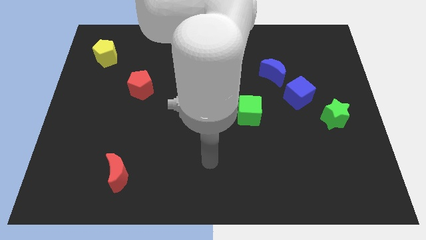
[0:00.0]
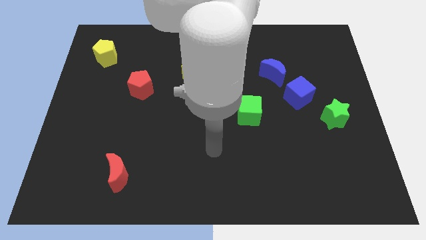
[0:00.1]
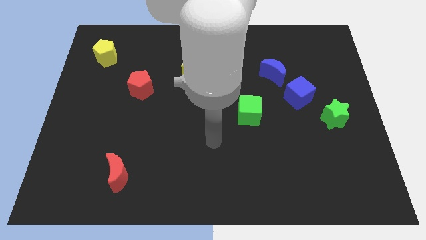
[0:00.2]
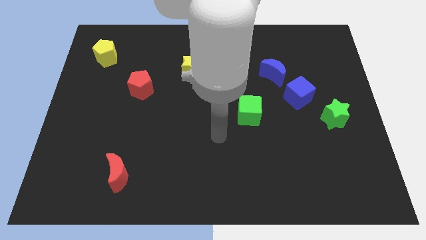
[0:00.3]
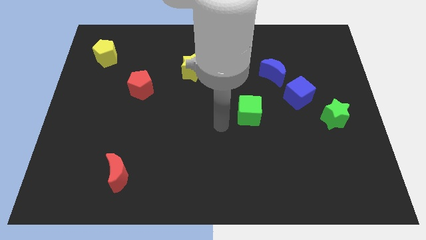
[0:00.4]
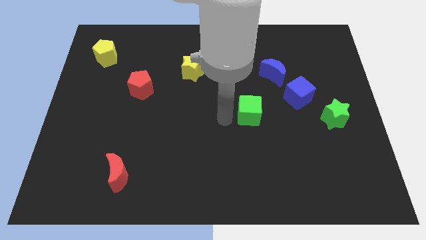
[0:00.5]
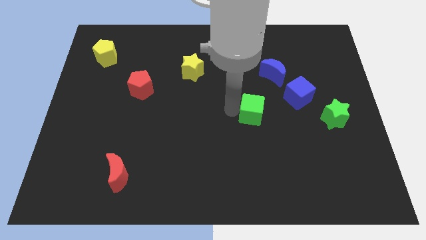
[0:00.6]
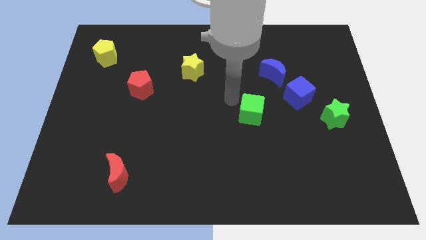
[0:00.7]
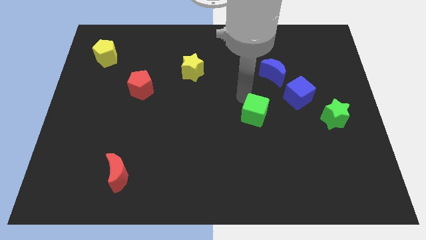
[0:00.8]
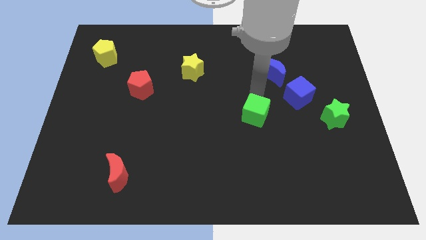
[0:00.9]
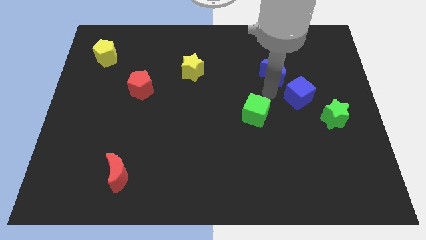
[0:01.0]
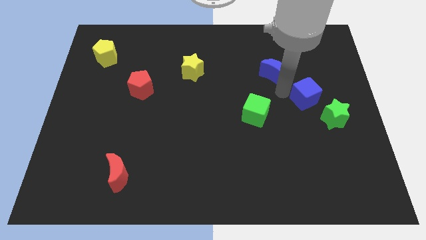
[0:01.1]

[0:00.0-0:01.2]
move the blue moon away from the blue cube

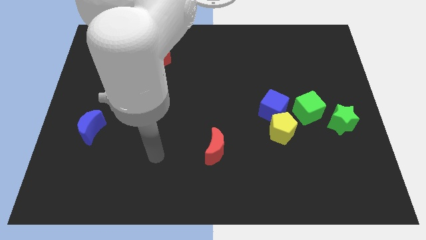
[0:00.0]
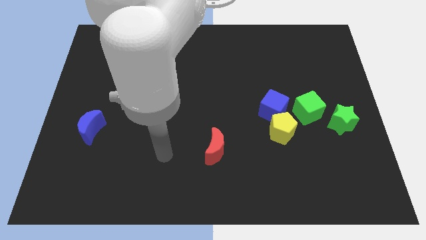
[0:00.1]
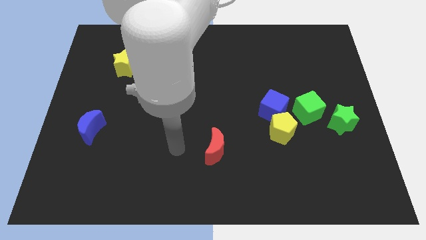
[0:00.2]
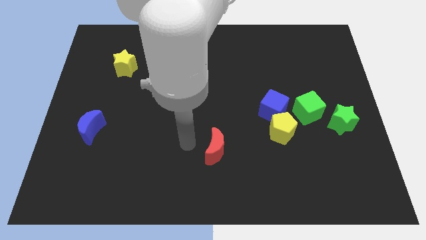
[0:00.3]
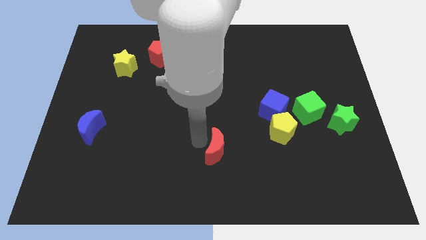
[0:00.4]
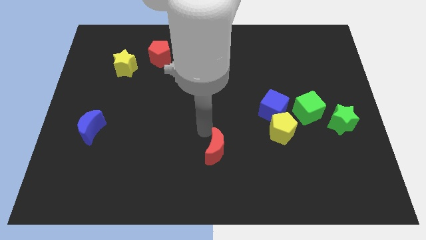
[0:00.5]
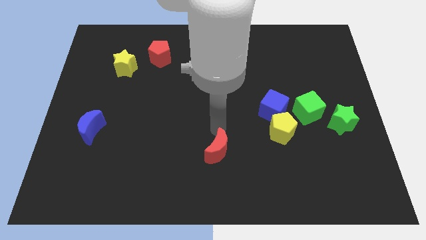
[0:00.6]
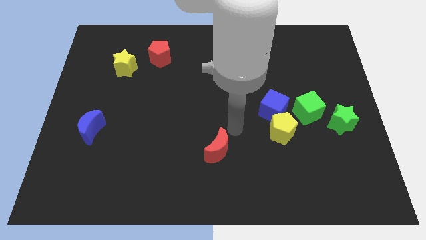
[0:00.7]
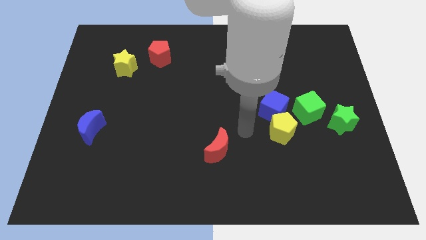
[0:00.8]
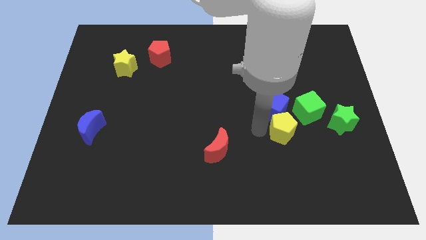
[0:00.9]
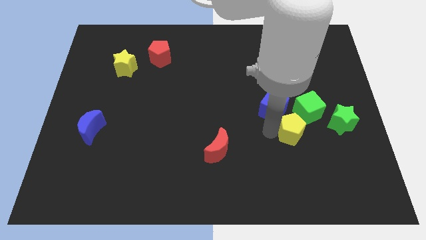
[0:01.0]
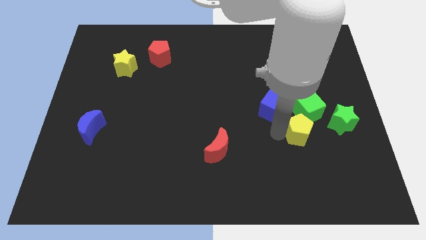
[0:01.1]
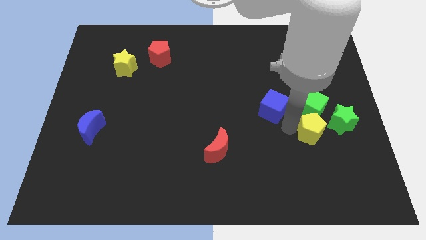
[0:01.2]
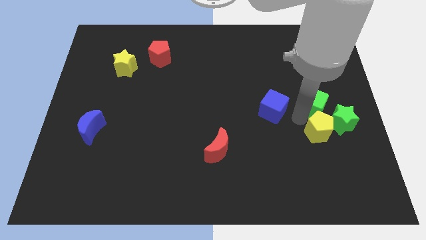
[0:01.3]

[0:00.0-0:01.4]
separate the blue cube from the yellow pentagon and green cube

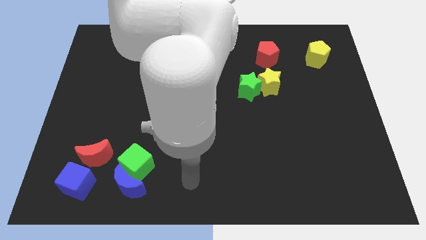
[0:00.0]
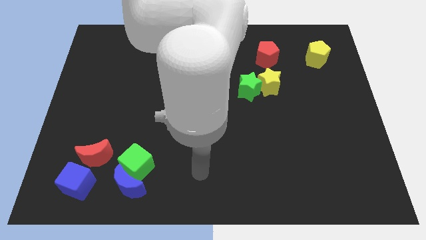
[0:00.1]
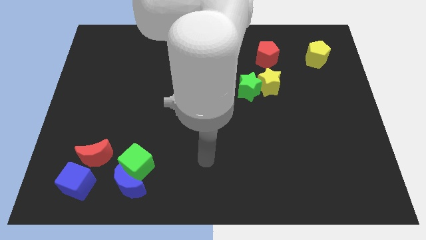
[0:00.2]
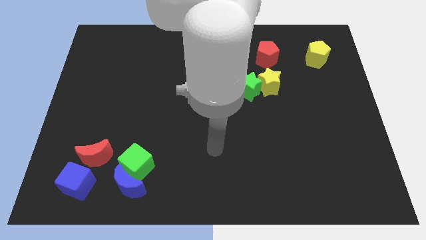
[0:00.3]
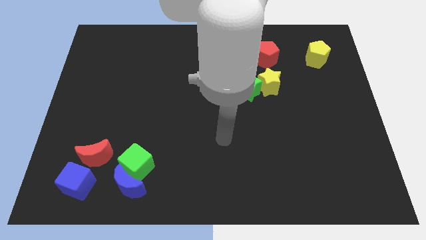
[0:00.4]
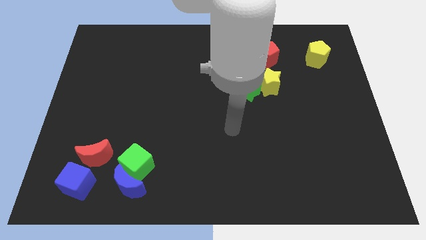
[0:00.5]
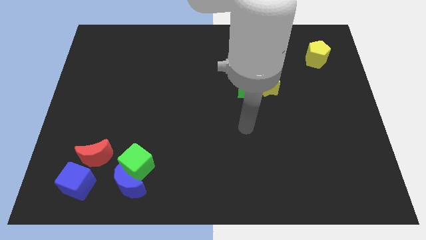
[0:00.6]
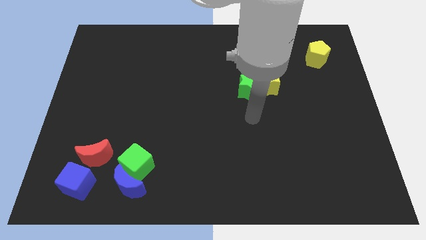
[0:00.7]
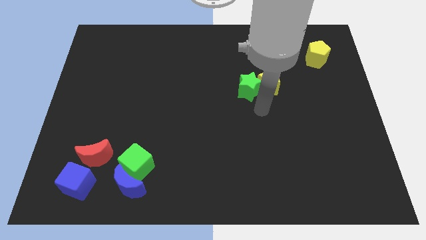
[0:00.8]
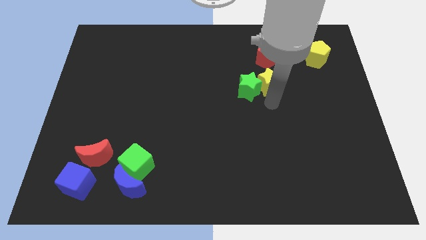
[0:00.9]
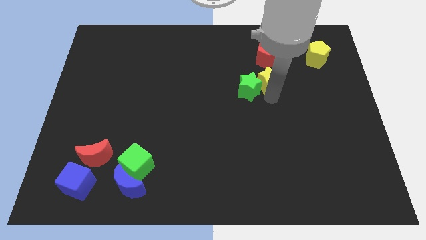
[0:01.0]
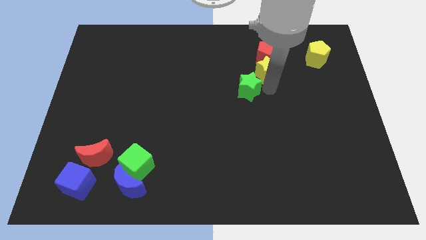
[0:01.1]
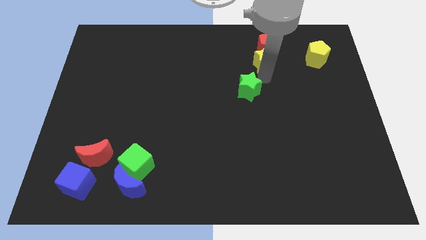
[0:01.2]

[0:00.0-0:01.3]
pull the green star apart from the yellow star

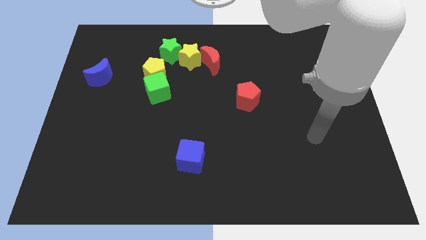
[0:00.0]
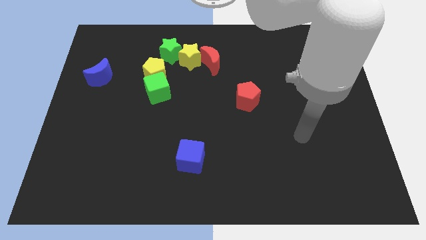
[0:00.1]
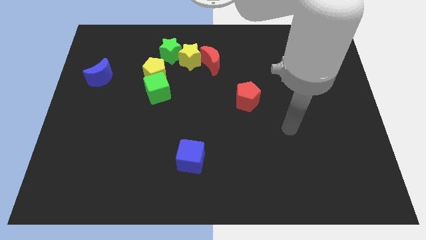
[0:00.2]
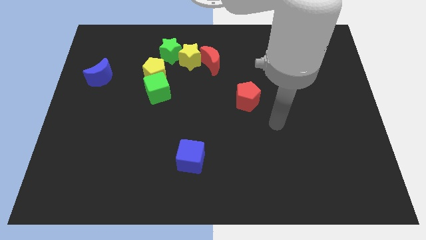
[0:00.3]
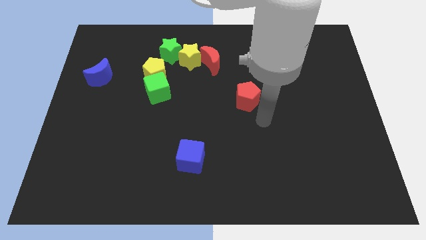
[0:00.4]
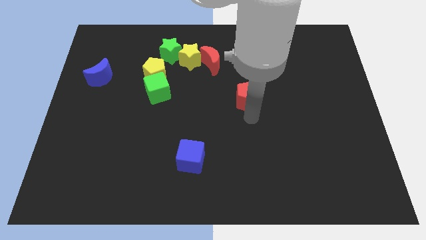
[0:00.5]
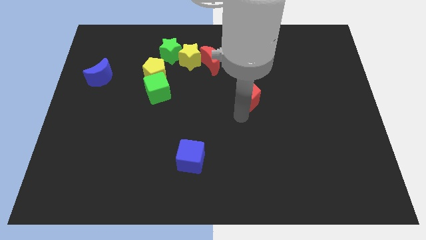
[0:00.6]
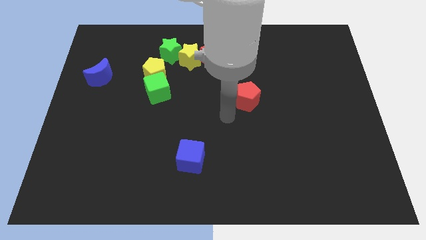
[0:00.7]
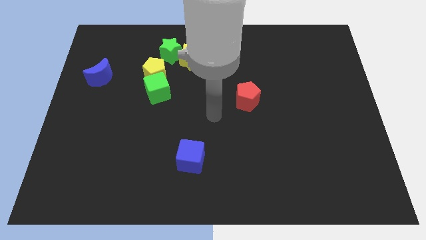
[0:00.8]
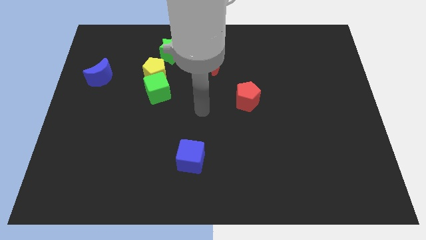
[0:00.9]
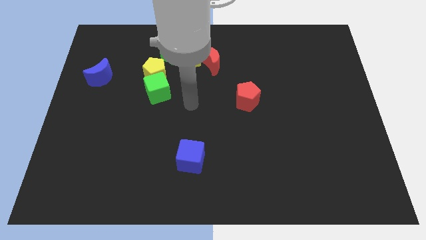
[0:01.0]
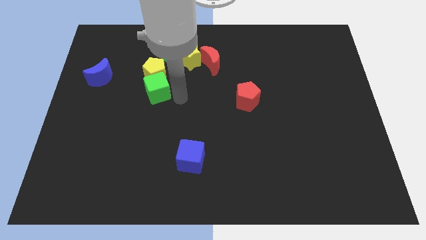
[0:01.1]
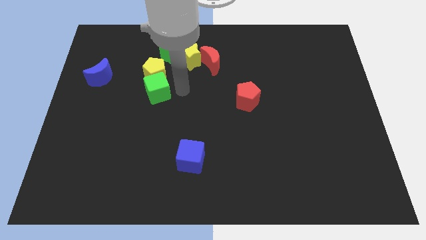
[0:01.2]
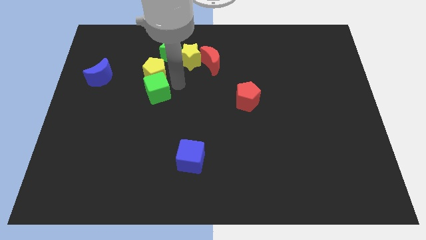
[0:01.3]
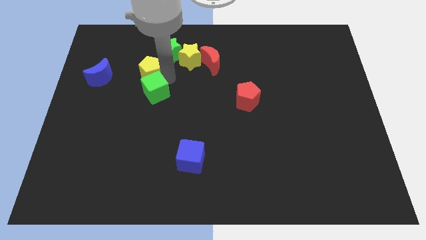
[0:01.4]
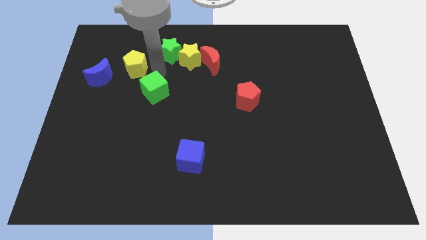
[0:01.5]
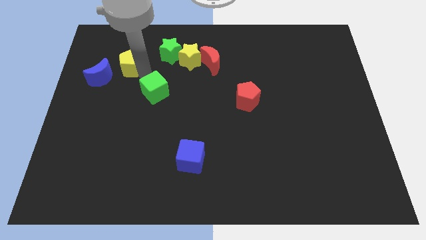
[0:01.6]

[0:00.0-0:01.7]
move the green cube away from the yellow pentagon

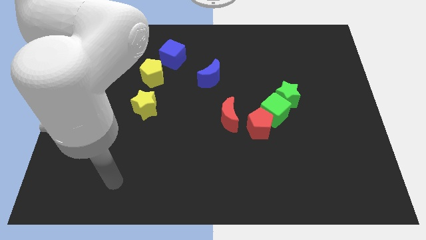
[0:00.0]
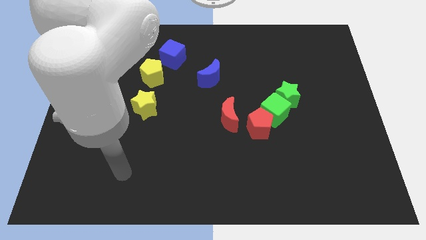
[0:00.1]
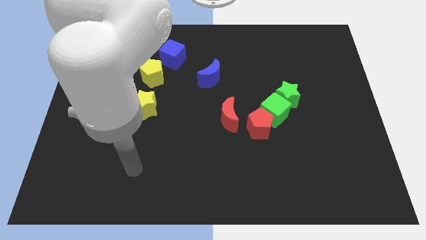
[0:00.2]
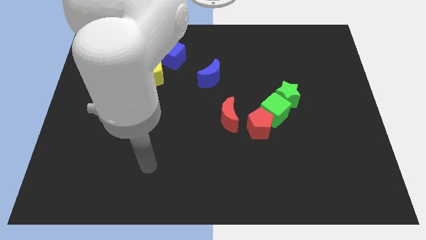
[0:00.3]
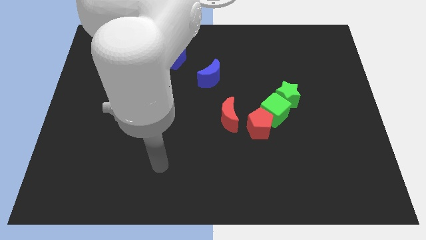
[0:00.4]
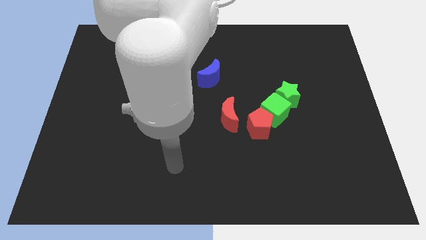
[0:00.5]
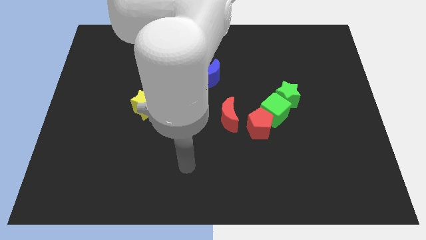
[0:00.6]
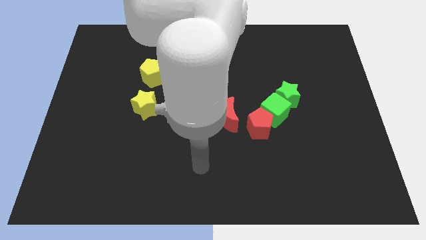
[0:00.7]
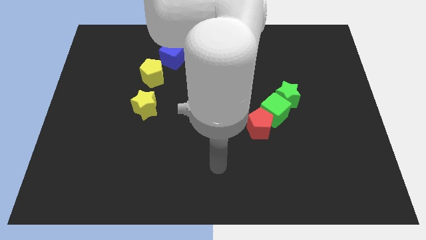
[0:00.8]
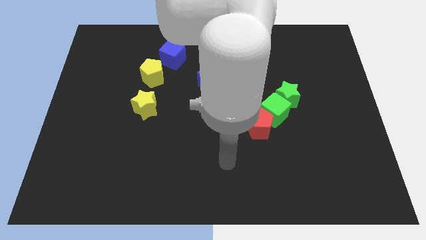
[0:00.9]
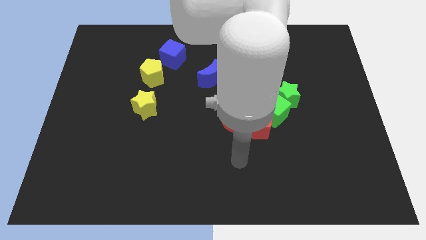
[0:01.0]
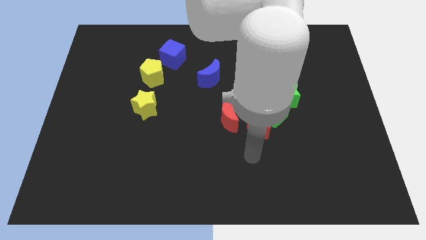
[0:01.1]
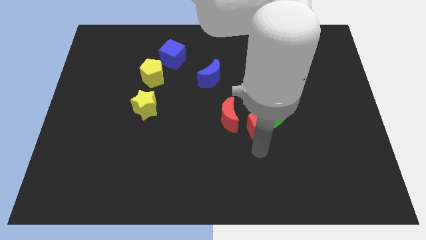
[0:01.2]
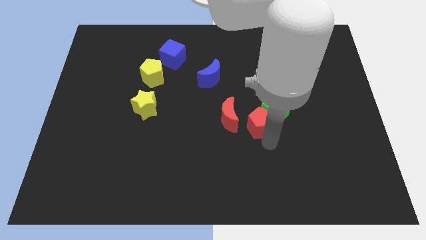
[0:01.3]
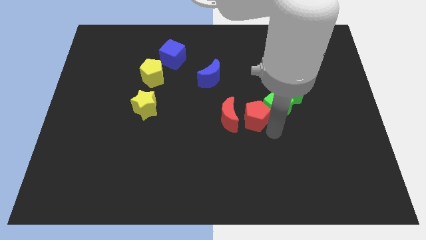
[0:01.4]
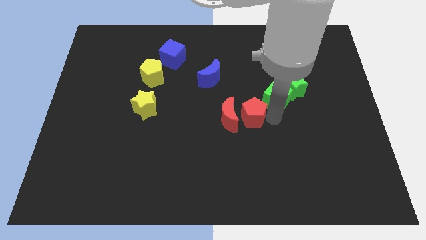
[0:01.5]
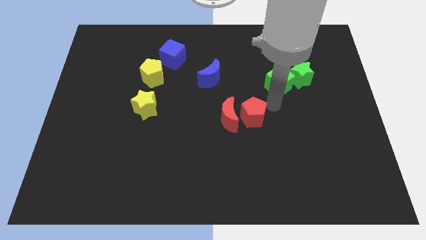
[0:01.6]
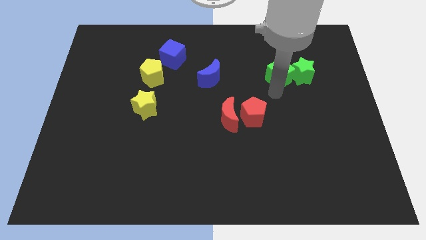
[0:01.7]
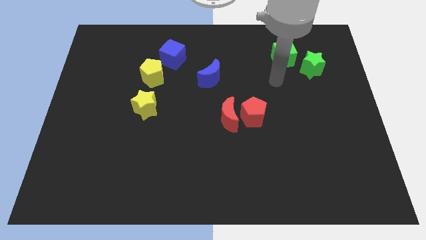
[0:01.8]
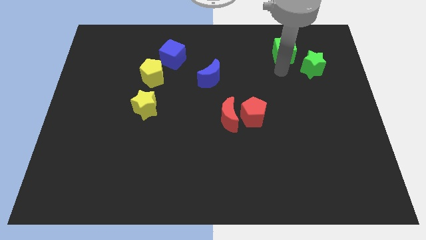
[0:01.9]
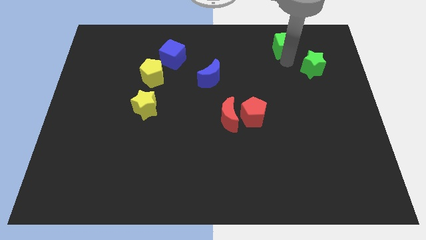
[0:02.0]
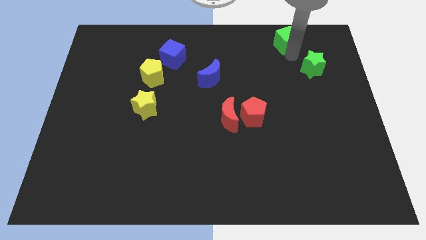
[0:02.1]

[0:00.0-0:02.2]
move the green star away from the green cube

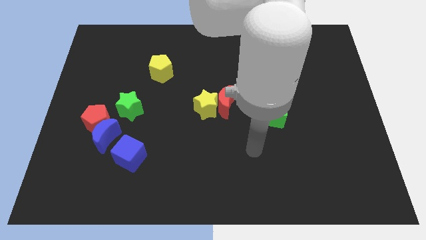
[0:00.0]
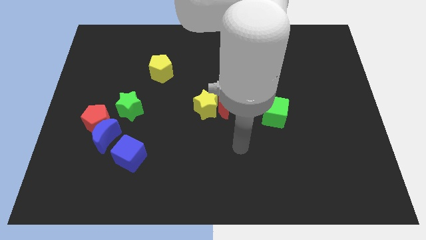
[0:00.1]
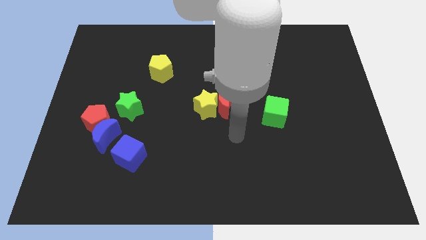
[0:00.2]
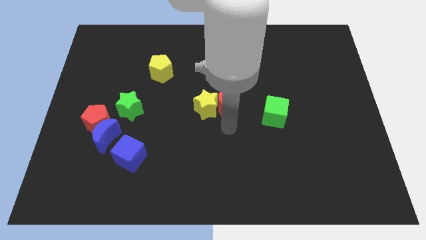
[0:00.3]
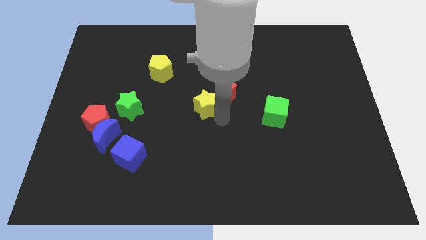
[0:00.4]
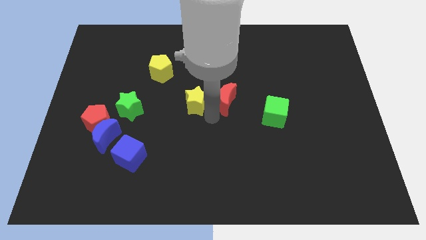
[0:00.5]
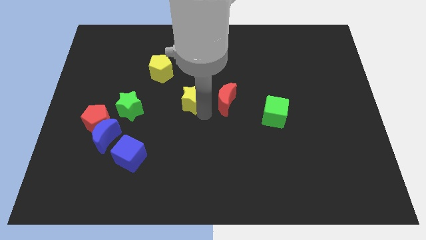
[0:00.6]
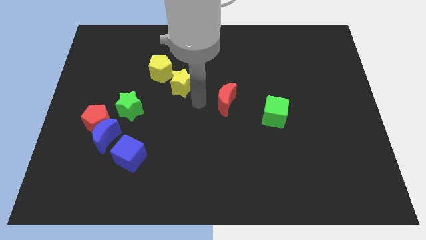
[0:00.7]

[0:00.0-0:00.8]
pull the red moon apart from the yellow star

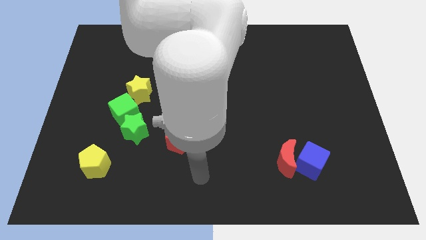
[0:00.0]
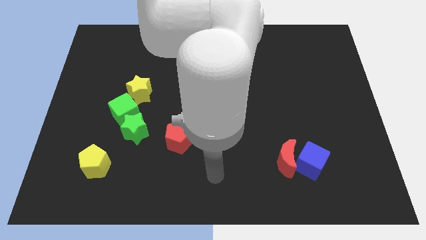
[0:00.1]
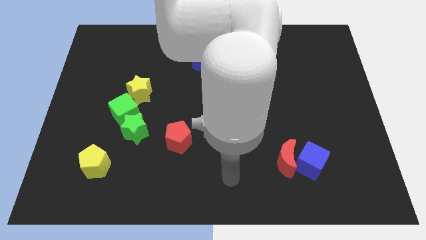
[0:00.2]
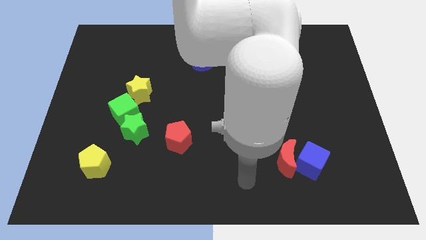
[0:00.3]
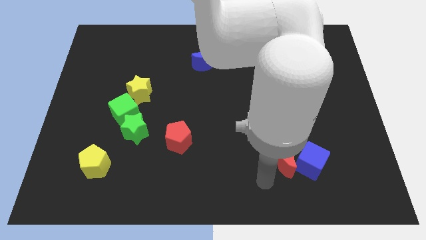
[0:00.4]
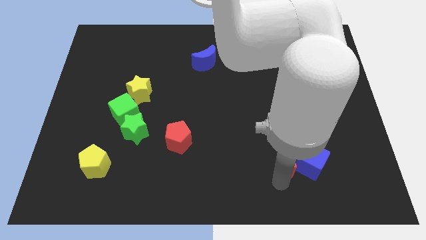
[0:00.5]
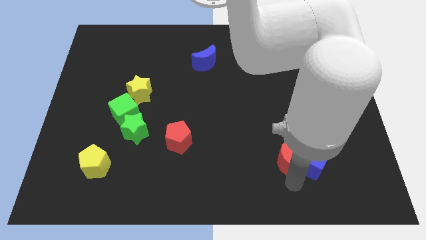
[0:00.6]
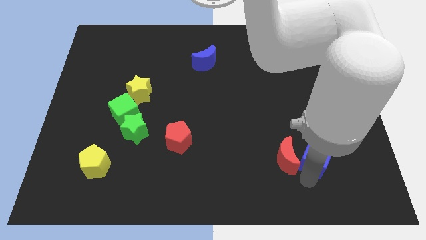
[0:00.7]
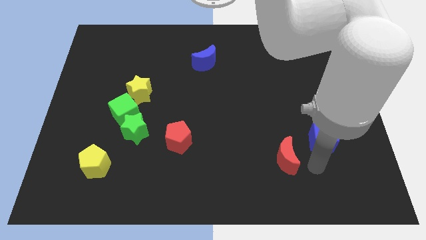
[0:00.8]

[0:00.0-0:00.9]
pull the red moon apart from the blue cube
